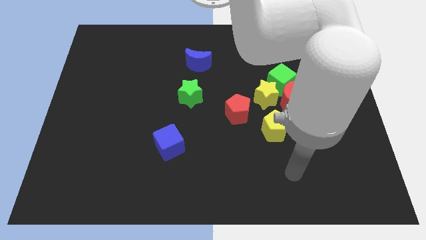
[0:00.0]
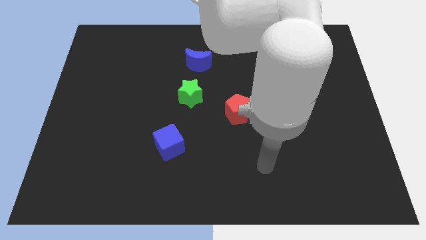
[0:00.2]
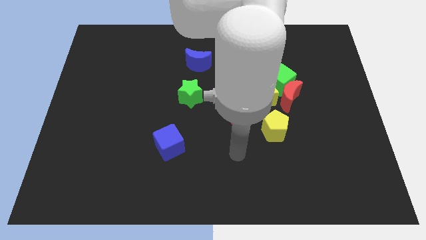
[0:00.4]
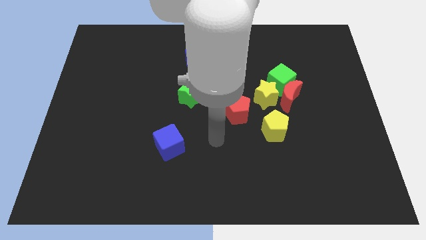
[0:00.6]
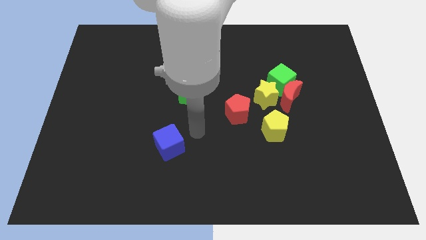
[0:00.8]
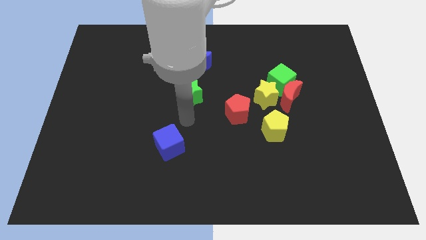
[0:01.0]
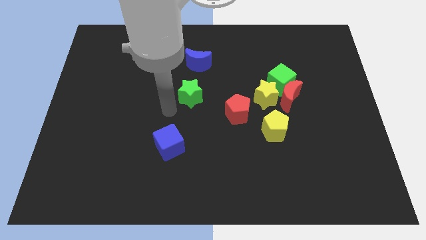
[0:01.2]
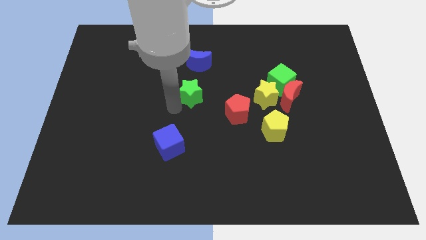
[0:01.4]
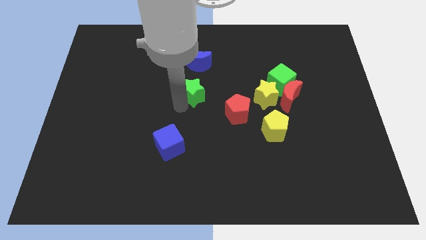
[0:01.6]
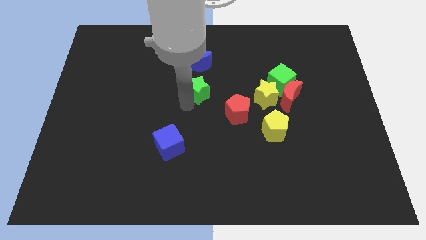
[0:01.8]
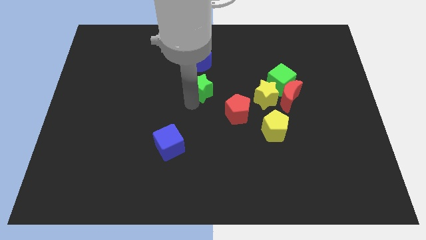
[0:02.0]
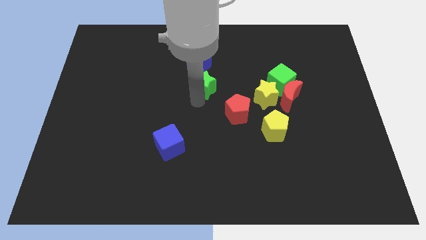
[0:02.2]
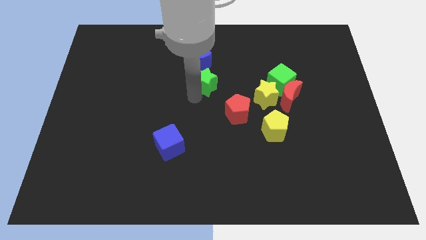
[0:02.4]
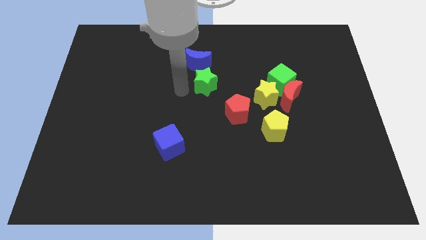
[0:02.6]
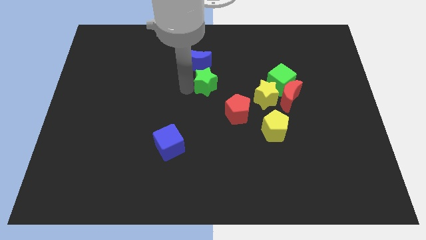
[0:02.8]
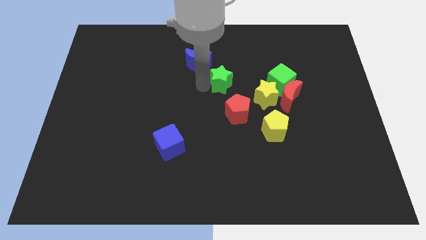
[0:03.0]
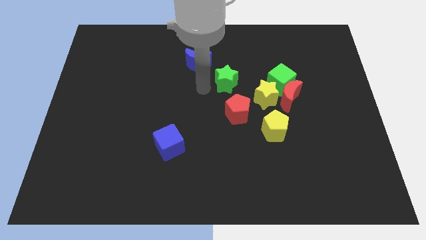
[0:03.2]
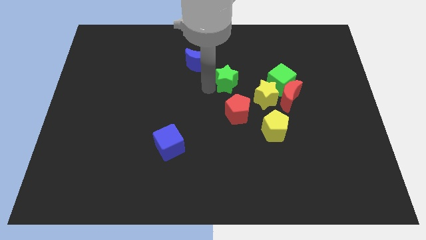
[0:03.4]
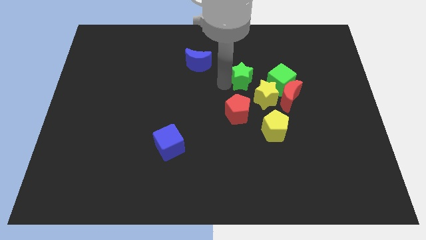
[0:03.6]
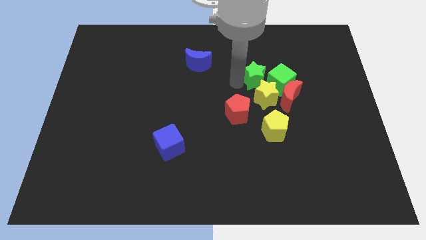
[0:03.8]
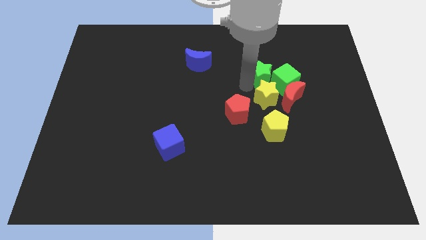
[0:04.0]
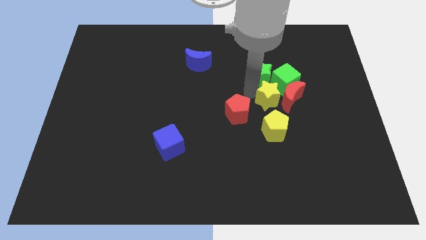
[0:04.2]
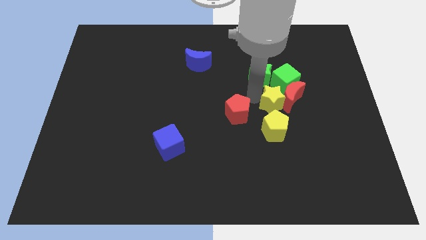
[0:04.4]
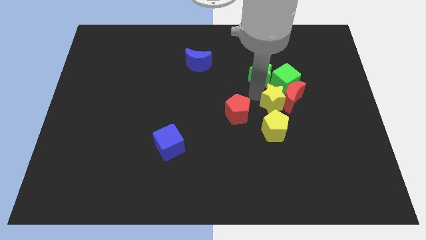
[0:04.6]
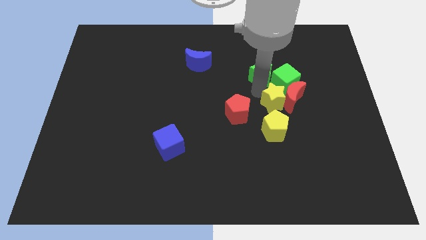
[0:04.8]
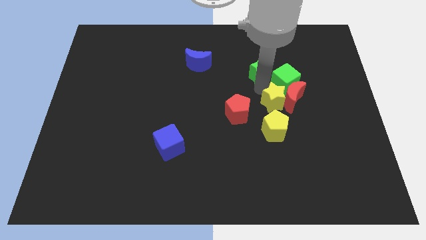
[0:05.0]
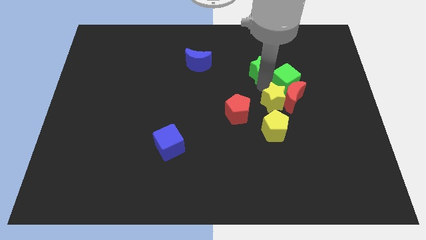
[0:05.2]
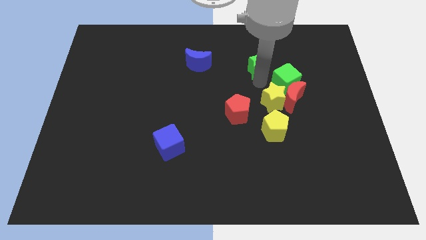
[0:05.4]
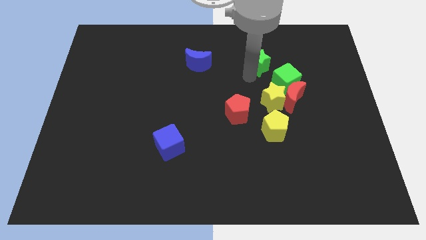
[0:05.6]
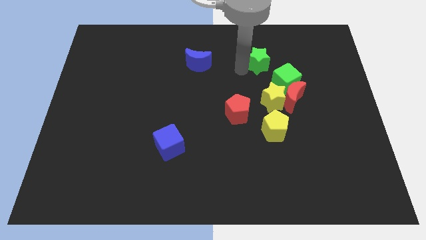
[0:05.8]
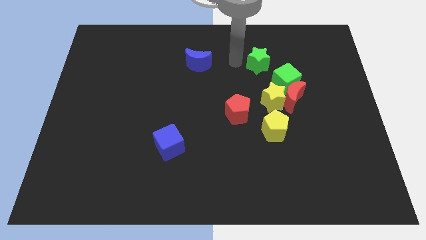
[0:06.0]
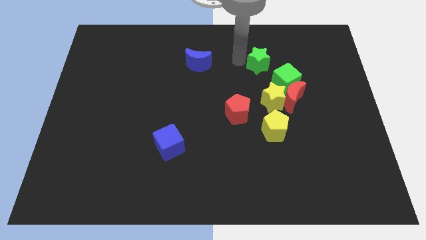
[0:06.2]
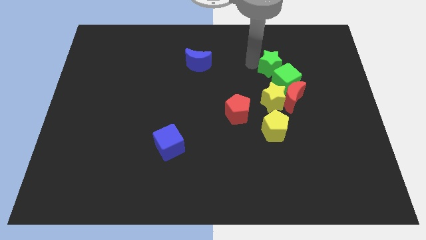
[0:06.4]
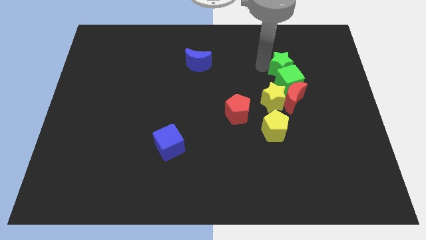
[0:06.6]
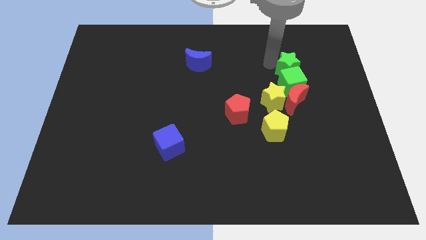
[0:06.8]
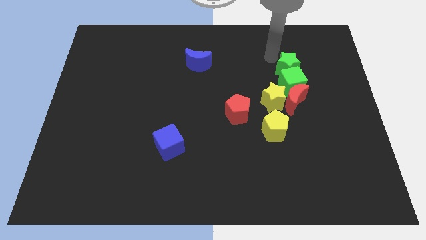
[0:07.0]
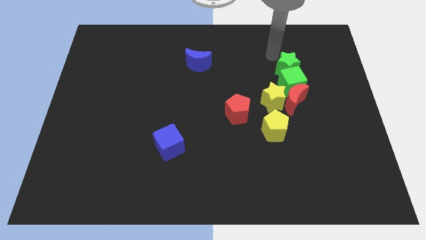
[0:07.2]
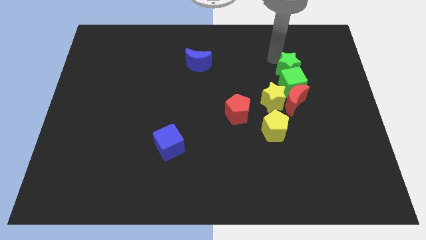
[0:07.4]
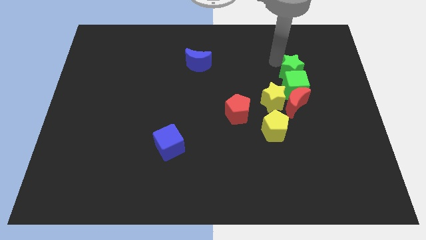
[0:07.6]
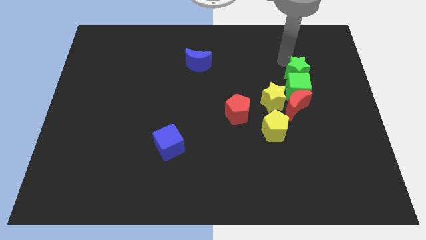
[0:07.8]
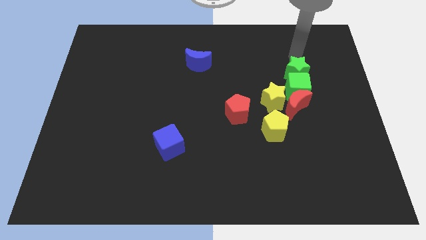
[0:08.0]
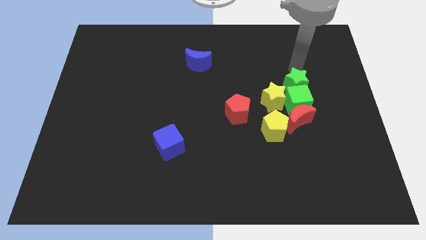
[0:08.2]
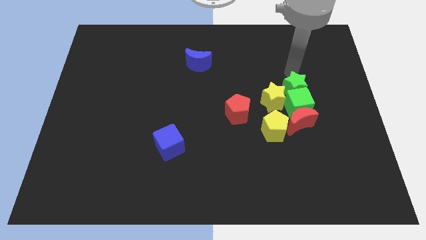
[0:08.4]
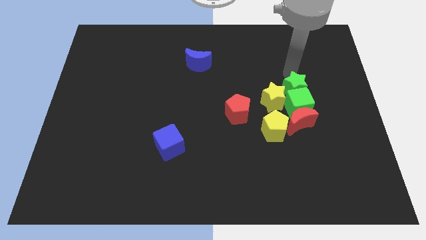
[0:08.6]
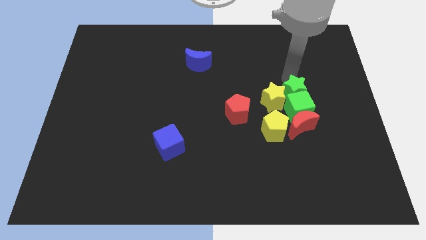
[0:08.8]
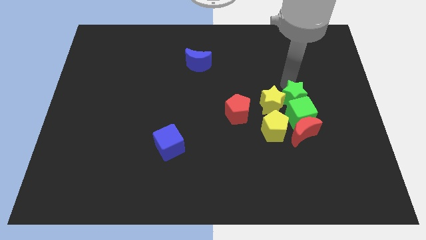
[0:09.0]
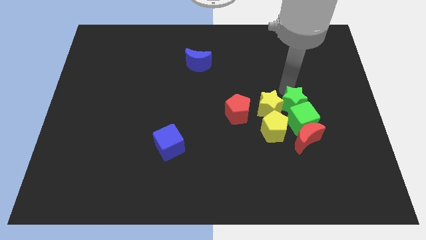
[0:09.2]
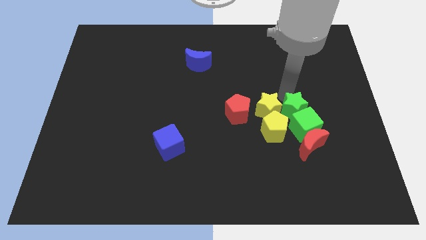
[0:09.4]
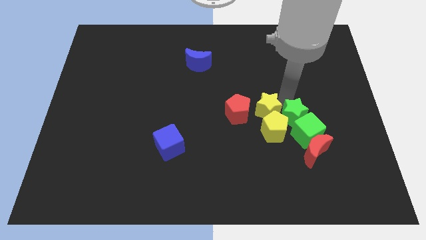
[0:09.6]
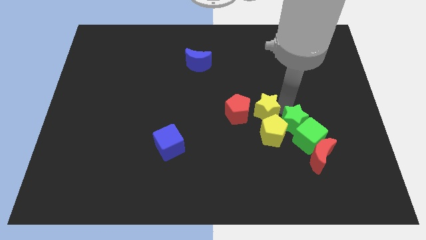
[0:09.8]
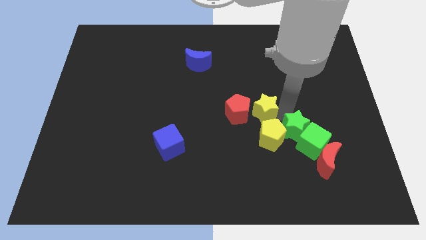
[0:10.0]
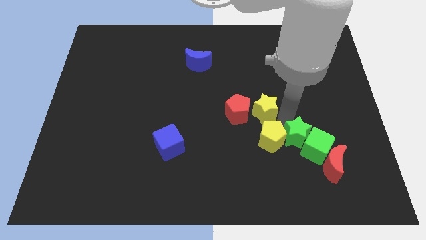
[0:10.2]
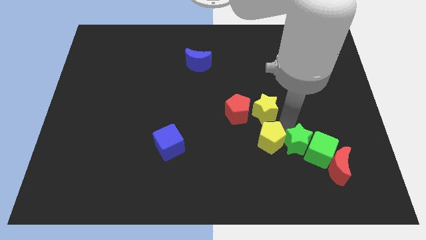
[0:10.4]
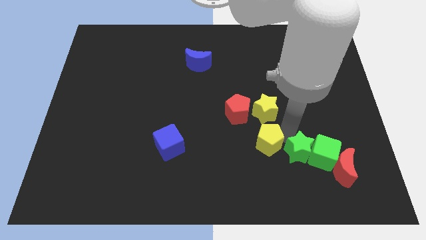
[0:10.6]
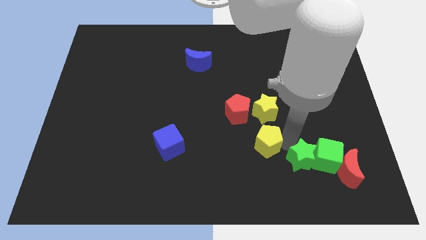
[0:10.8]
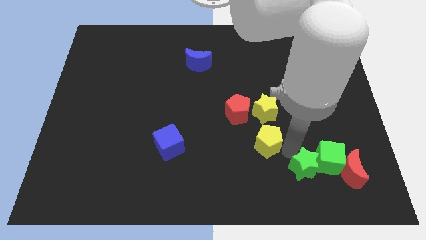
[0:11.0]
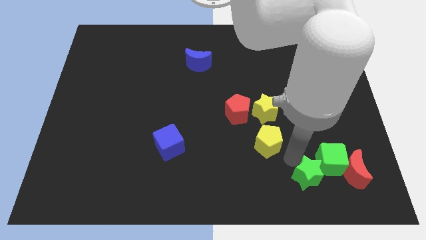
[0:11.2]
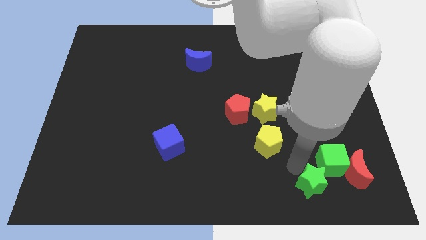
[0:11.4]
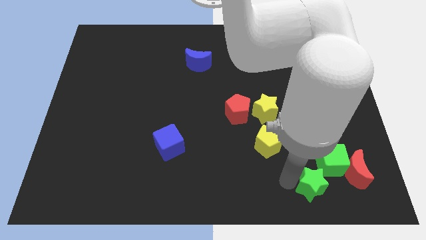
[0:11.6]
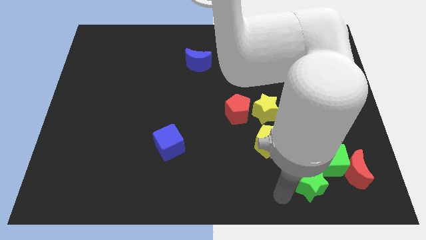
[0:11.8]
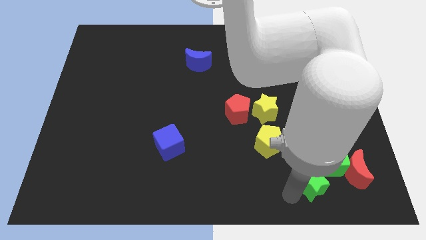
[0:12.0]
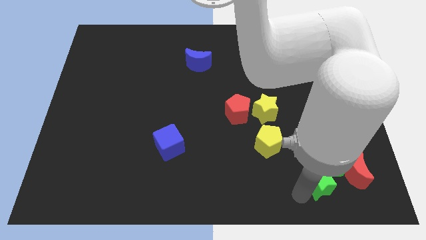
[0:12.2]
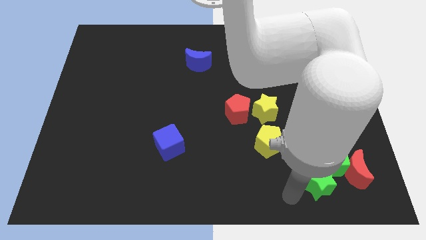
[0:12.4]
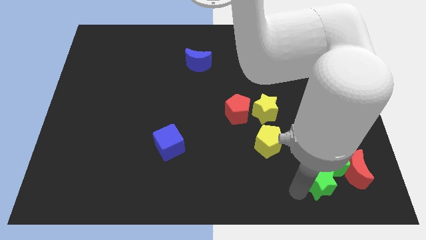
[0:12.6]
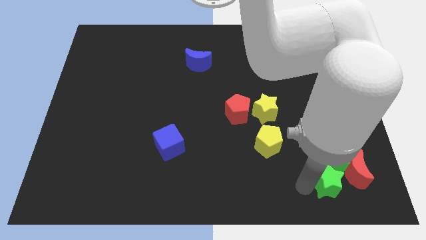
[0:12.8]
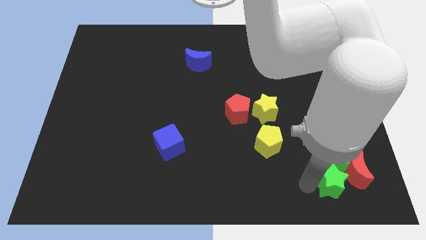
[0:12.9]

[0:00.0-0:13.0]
push the green star to the red moon

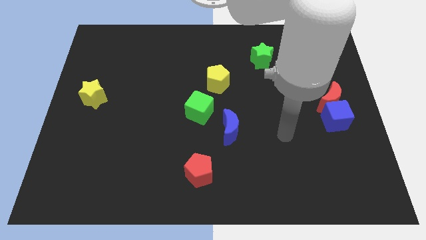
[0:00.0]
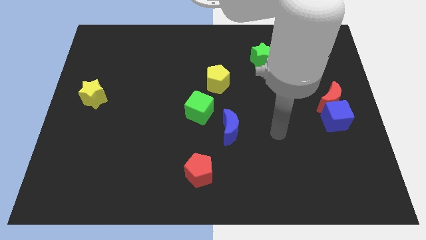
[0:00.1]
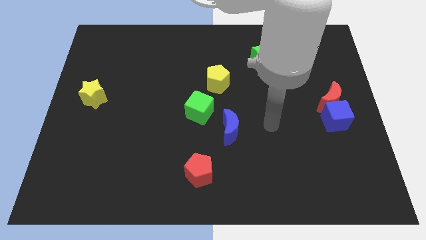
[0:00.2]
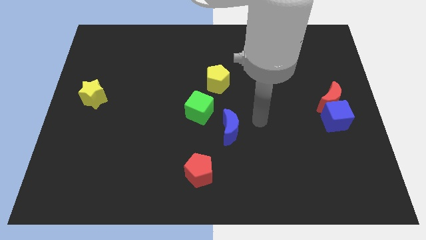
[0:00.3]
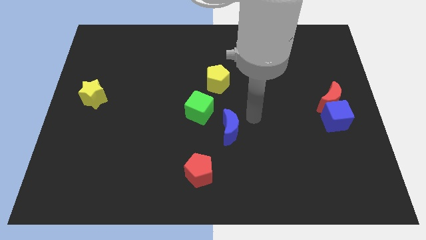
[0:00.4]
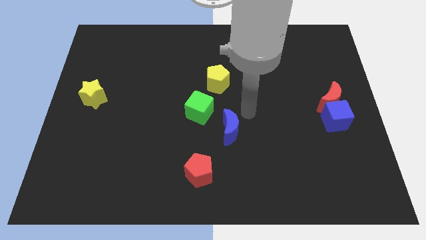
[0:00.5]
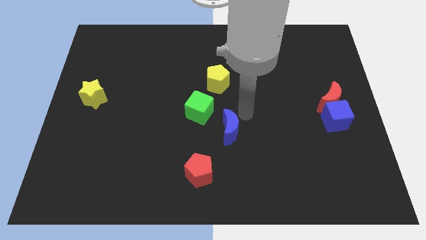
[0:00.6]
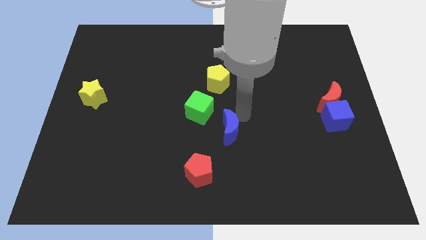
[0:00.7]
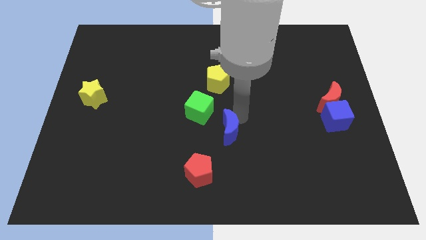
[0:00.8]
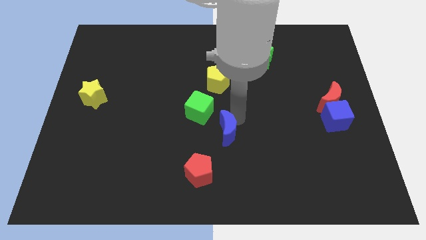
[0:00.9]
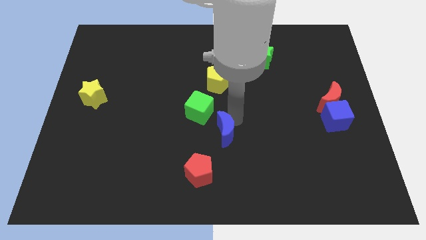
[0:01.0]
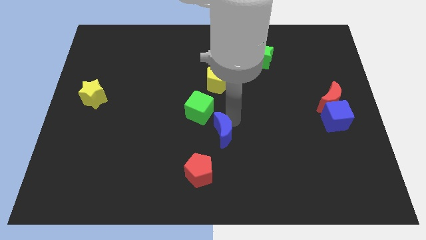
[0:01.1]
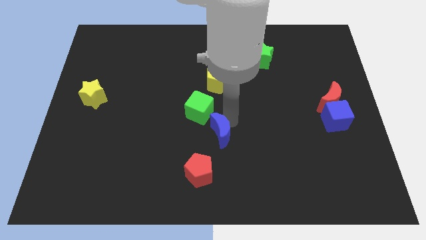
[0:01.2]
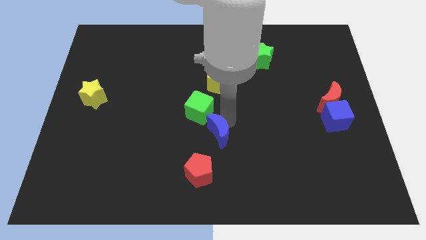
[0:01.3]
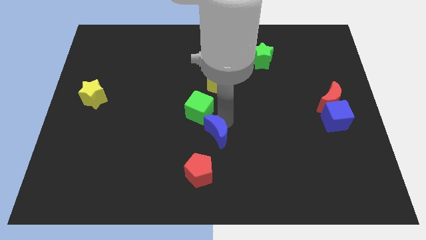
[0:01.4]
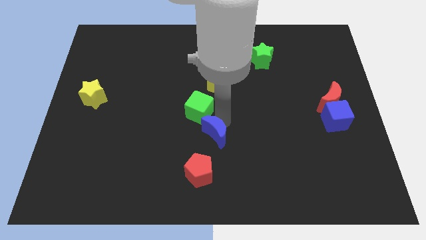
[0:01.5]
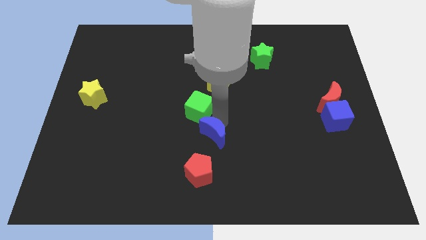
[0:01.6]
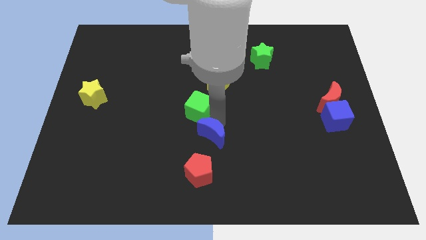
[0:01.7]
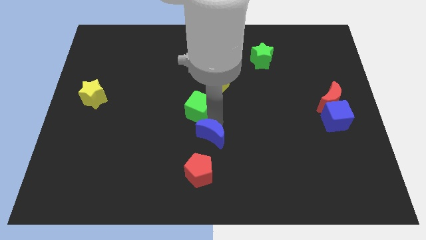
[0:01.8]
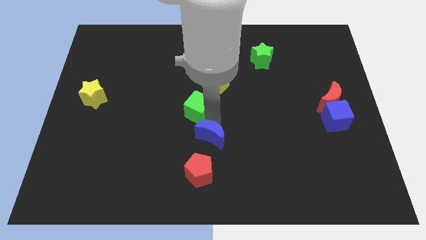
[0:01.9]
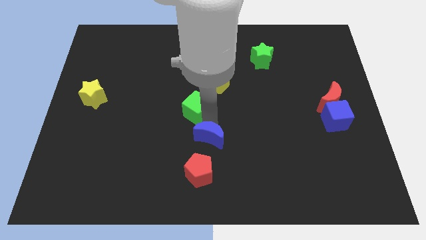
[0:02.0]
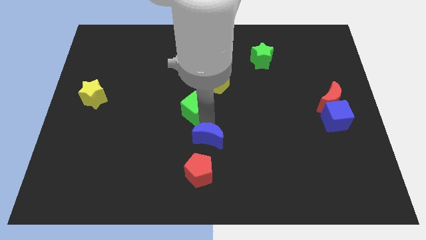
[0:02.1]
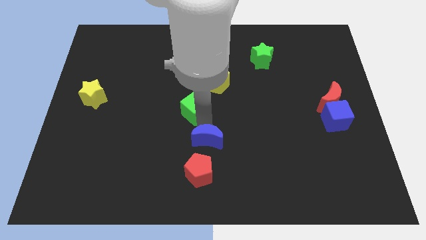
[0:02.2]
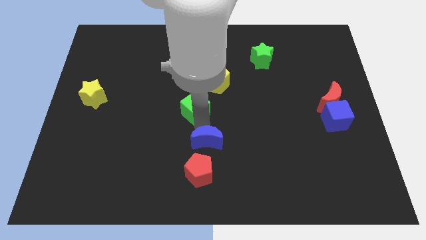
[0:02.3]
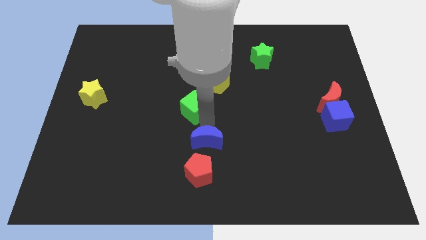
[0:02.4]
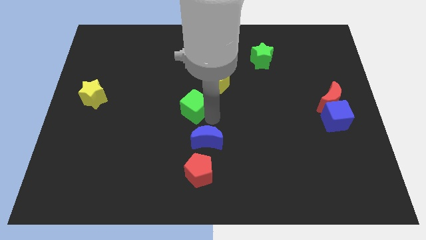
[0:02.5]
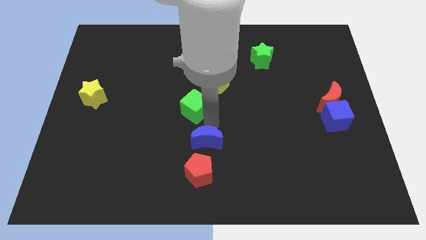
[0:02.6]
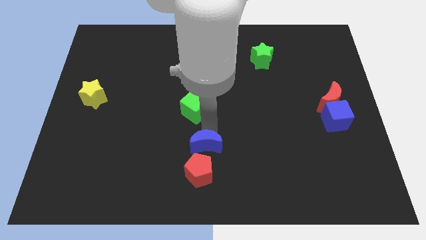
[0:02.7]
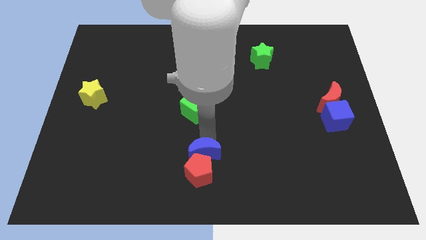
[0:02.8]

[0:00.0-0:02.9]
put the blue moon next to the red pentagon
